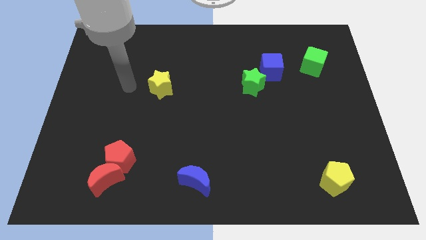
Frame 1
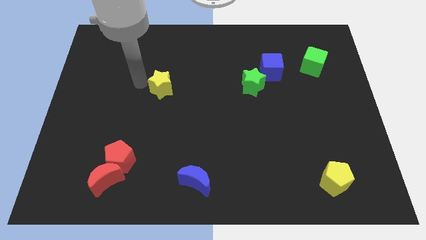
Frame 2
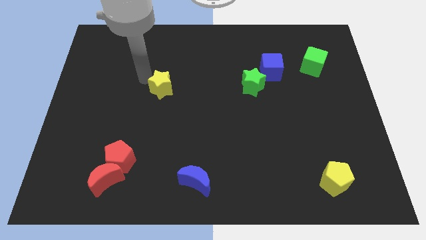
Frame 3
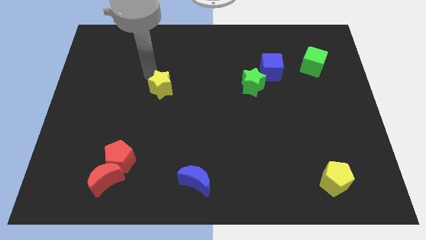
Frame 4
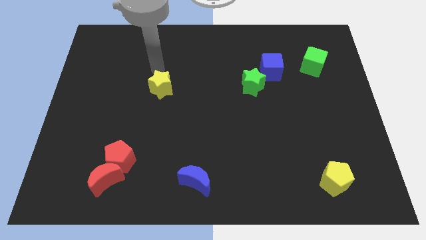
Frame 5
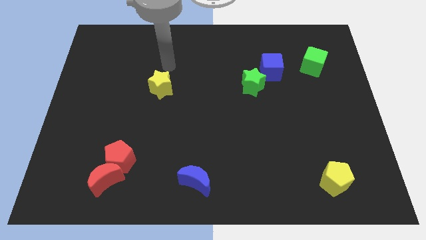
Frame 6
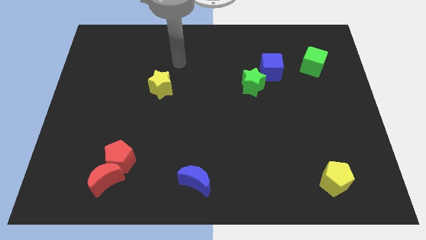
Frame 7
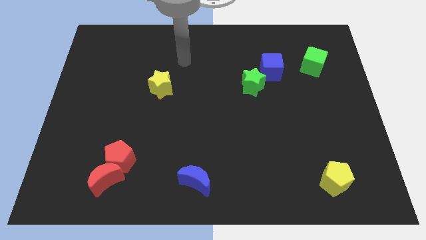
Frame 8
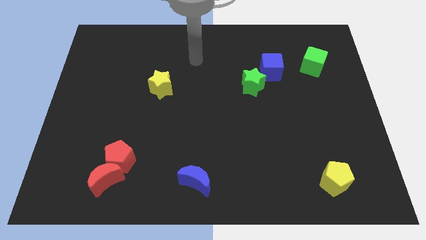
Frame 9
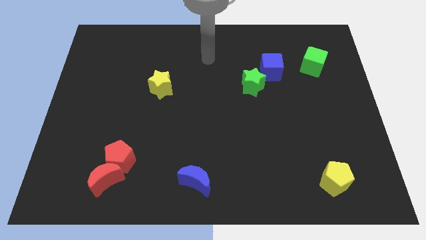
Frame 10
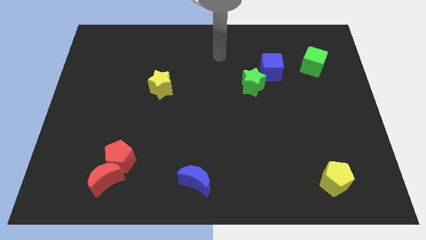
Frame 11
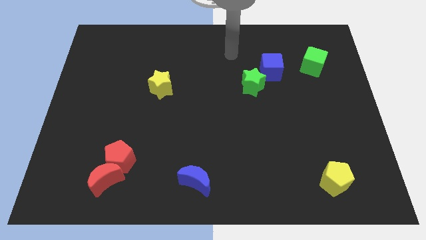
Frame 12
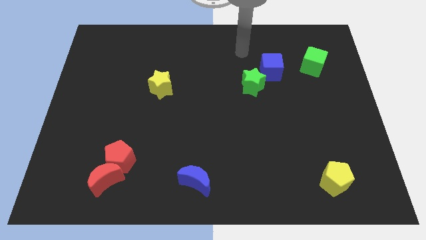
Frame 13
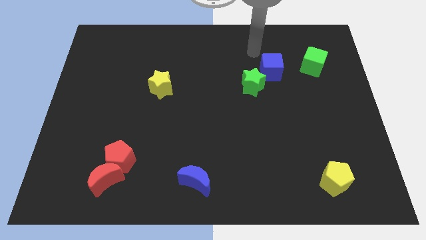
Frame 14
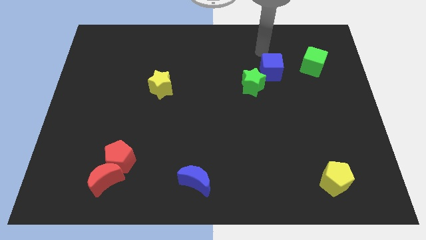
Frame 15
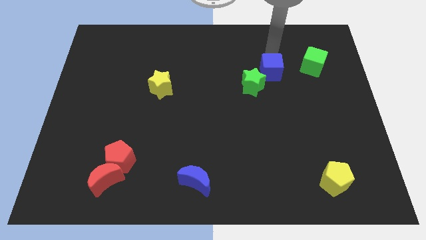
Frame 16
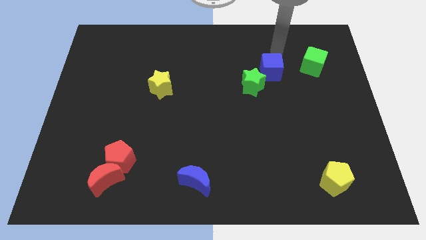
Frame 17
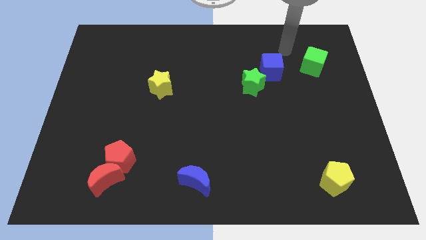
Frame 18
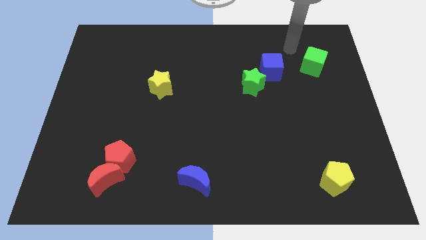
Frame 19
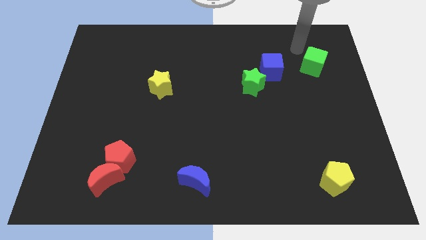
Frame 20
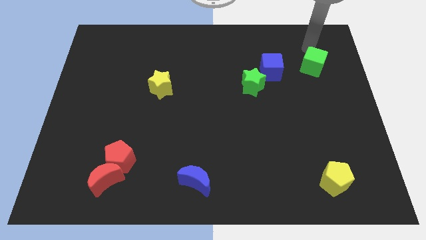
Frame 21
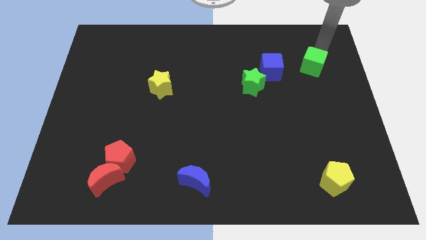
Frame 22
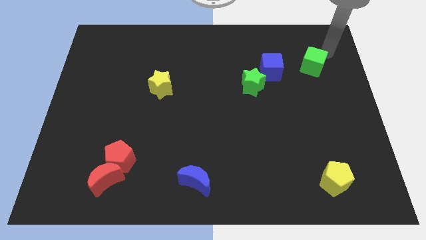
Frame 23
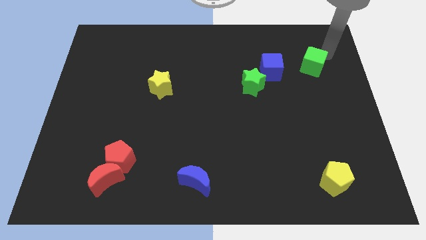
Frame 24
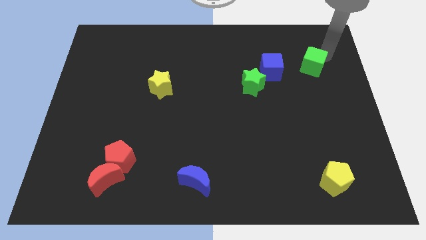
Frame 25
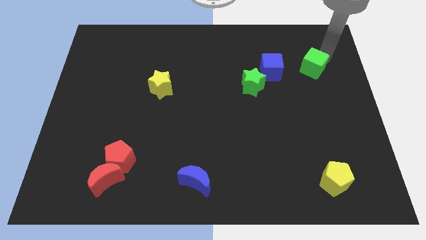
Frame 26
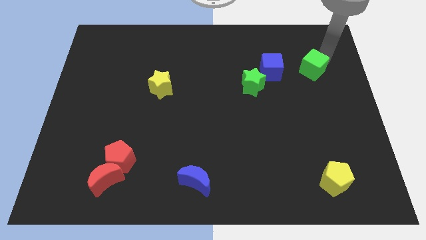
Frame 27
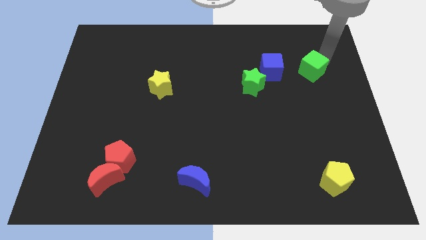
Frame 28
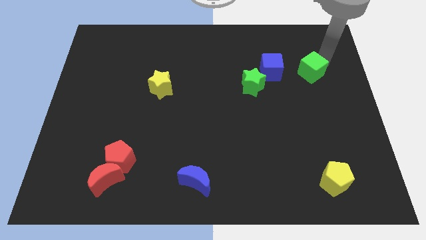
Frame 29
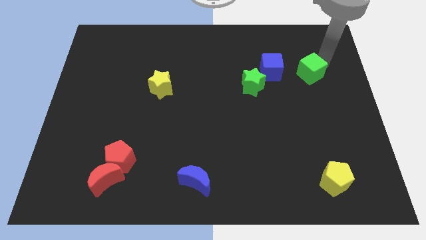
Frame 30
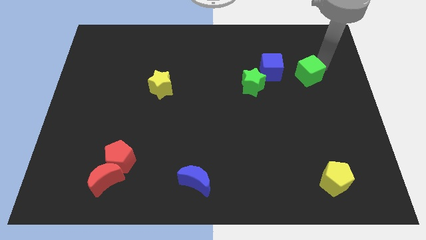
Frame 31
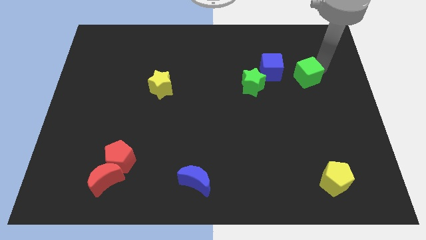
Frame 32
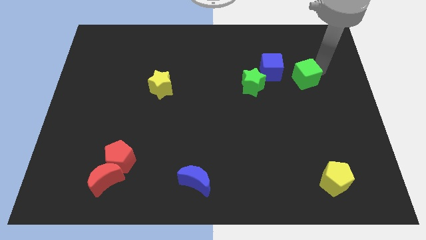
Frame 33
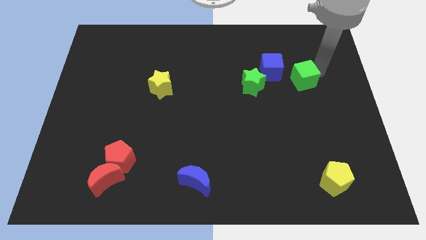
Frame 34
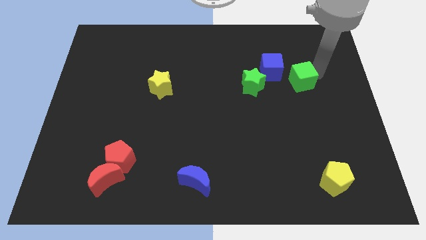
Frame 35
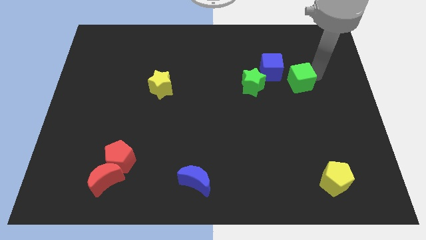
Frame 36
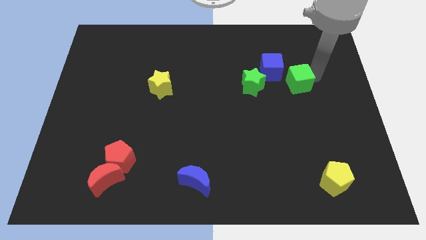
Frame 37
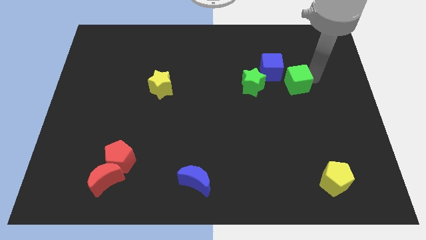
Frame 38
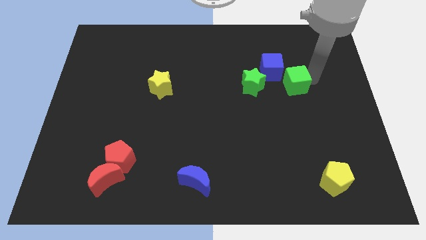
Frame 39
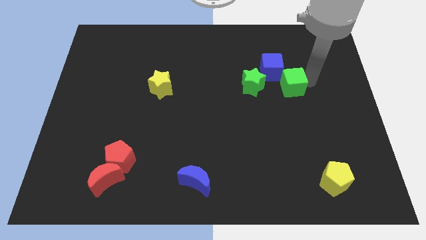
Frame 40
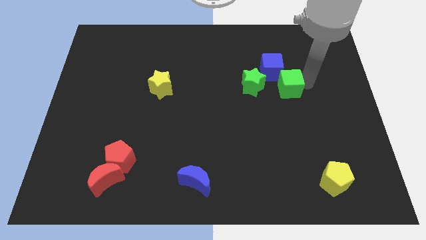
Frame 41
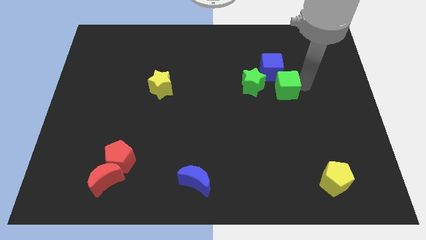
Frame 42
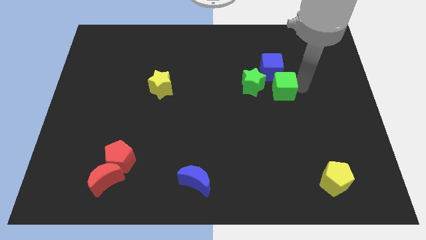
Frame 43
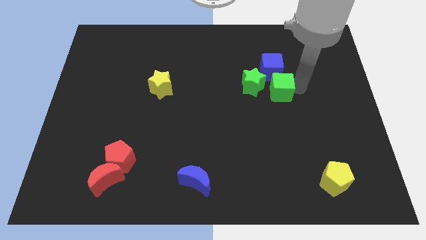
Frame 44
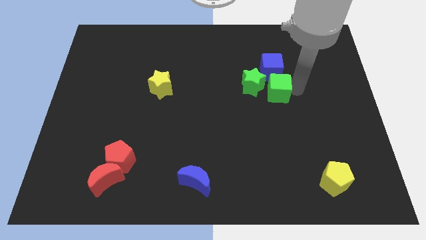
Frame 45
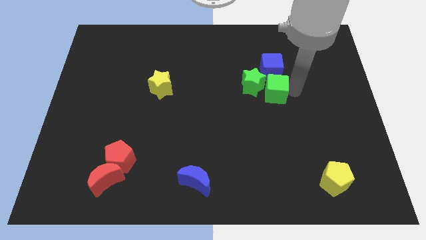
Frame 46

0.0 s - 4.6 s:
push the green cube next to the green star

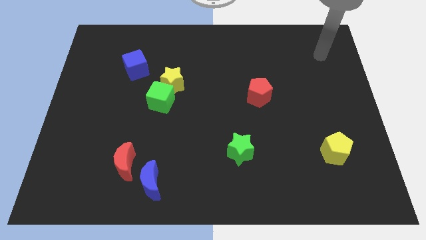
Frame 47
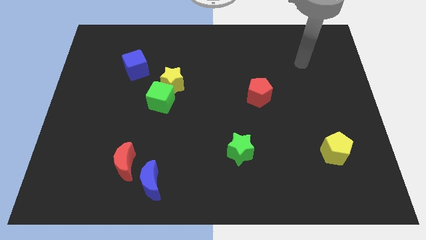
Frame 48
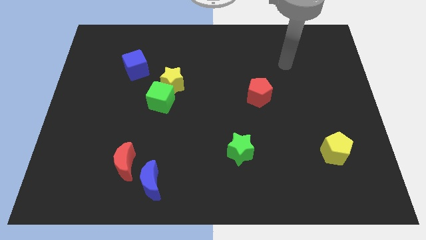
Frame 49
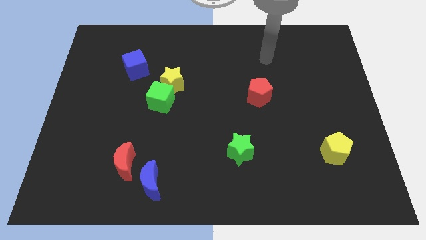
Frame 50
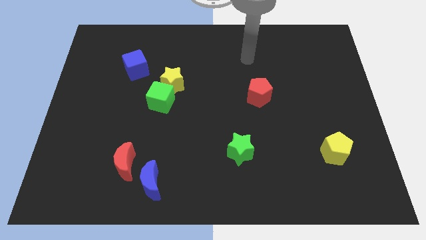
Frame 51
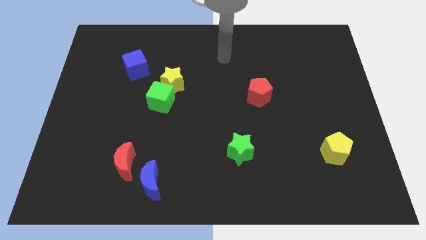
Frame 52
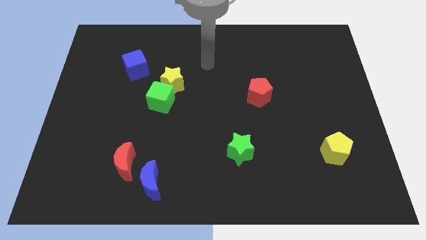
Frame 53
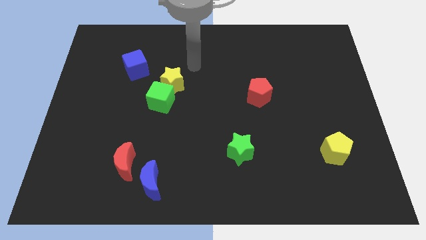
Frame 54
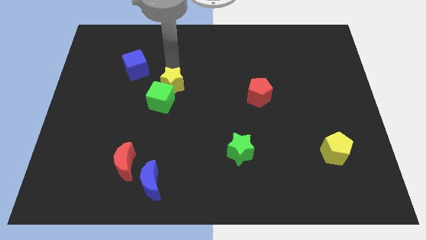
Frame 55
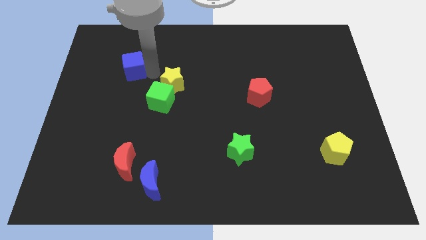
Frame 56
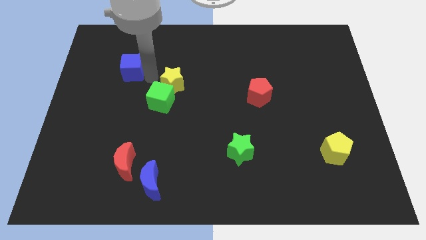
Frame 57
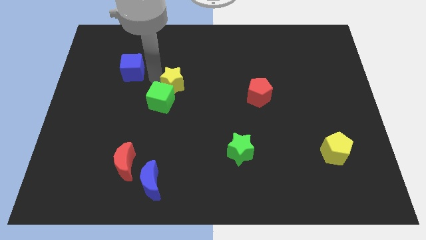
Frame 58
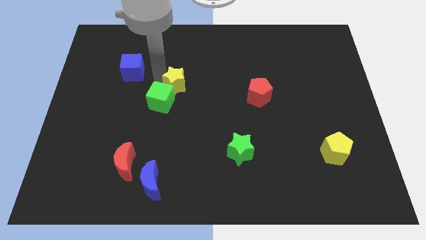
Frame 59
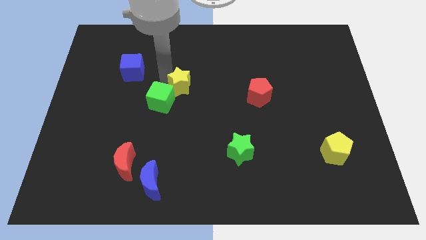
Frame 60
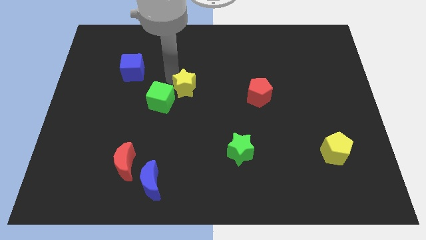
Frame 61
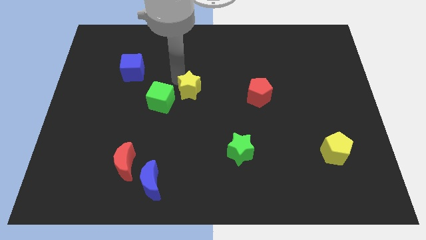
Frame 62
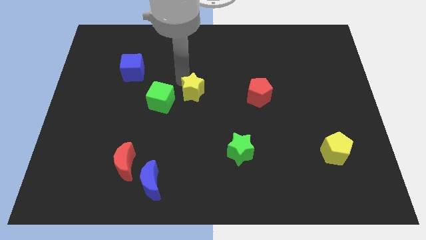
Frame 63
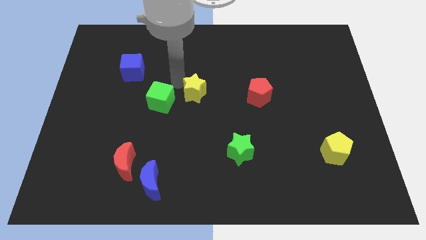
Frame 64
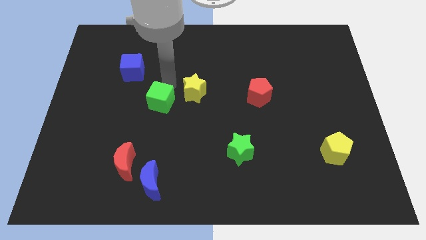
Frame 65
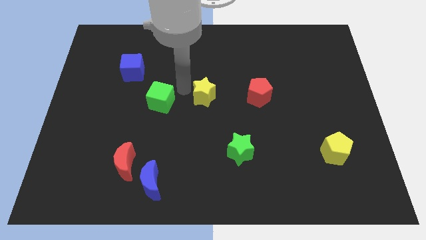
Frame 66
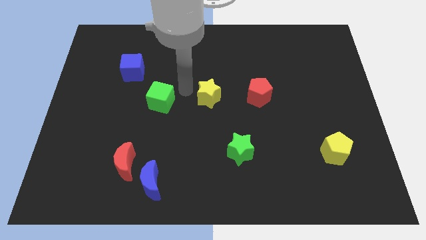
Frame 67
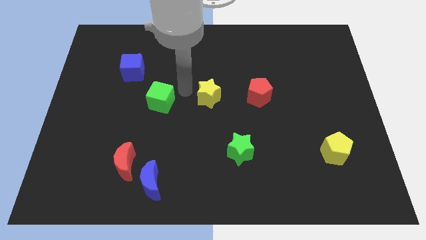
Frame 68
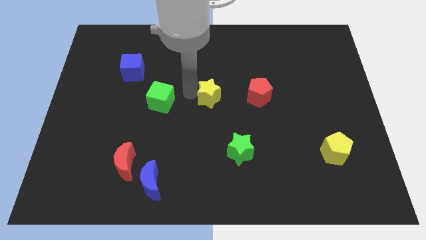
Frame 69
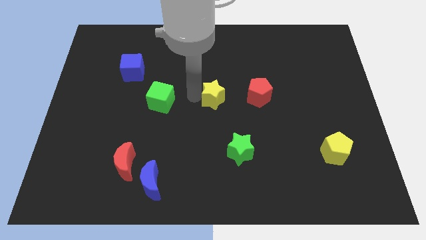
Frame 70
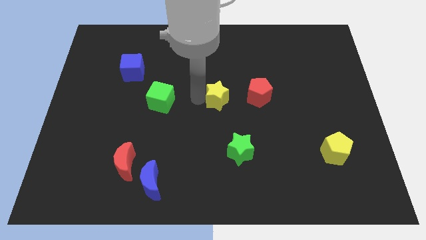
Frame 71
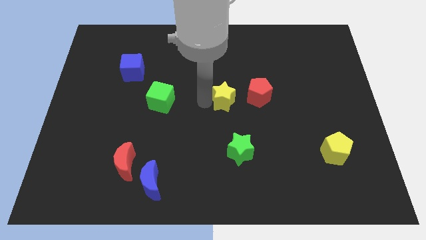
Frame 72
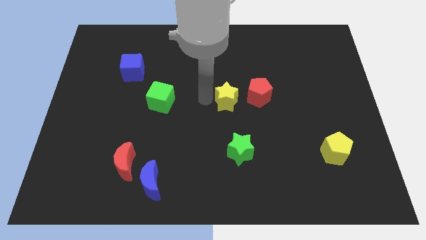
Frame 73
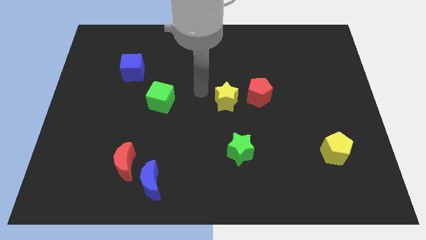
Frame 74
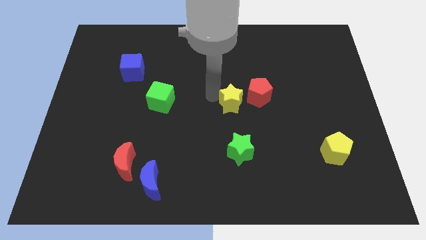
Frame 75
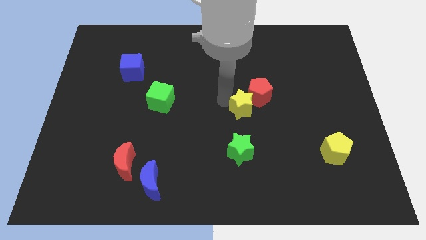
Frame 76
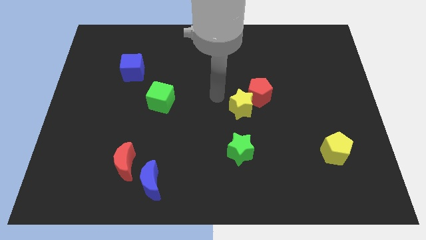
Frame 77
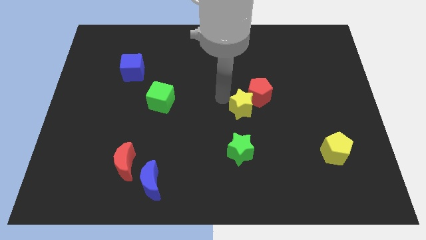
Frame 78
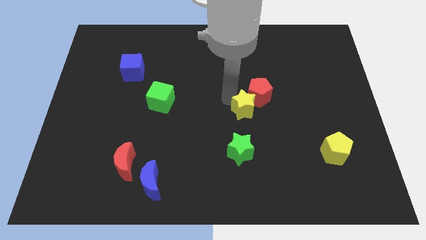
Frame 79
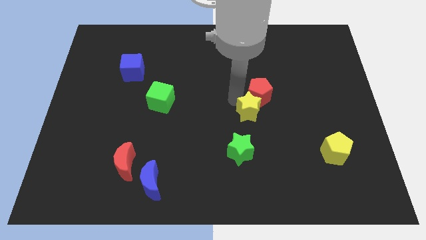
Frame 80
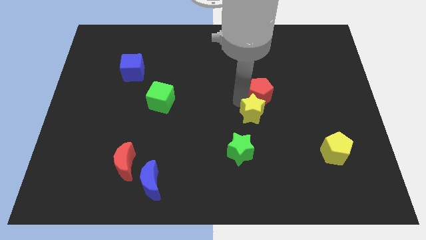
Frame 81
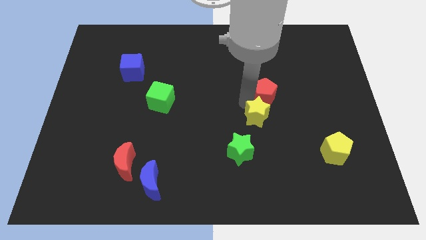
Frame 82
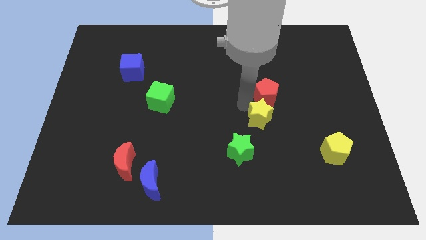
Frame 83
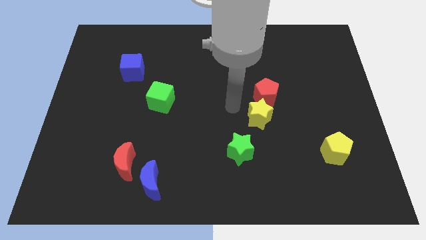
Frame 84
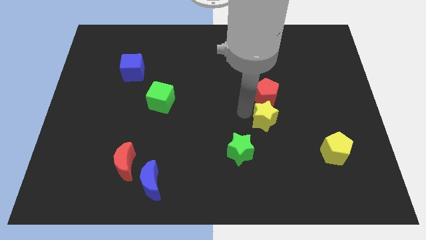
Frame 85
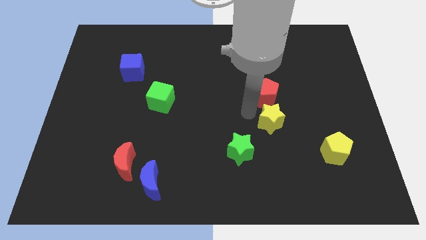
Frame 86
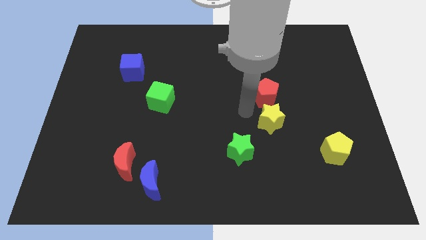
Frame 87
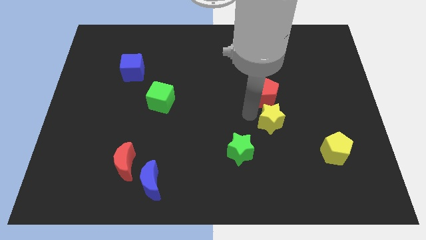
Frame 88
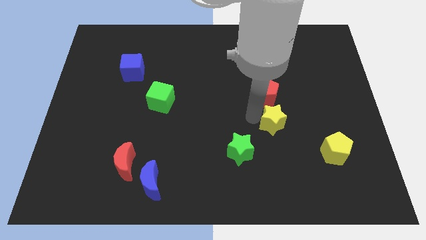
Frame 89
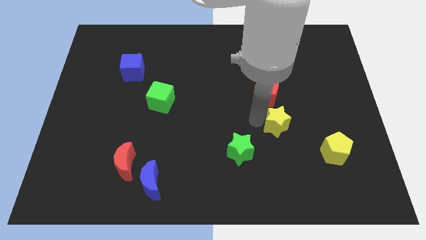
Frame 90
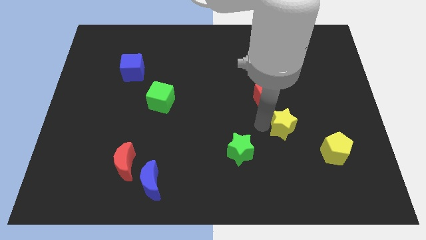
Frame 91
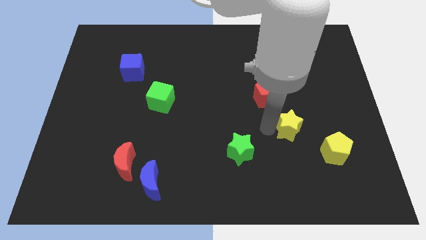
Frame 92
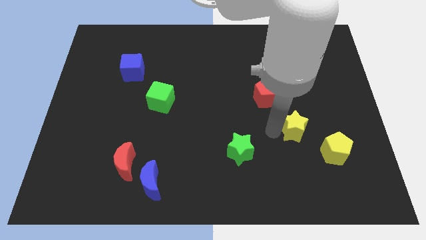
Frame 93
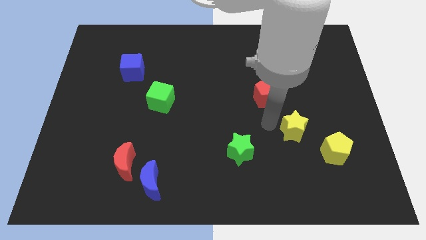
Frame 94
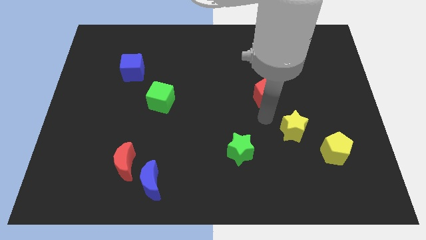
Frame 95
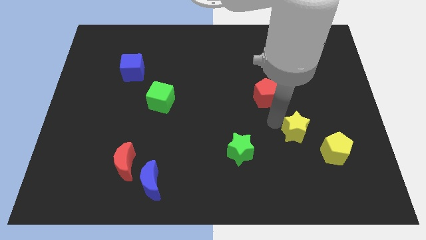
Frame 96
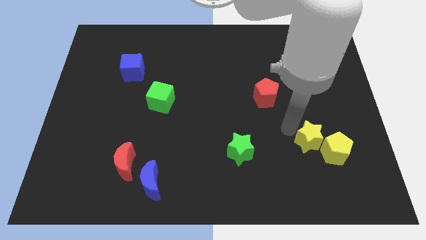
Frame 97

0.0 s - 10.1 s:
slide the yellow star next to the yellow pentagon
